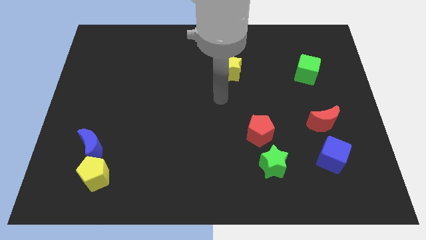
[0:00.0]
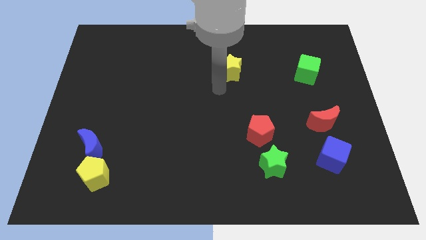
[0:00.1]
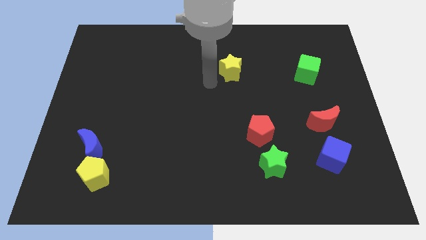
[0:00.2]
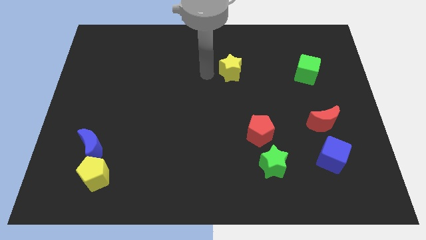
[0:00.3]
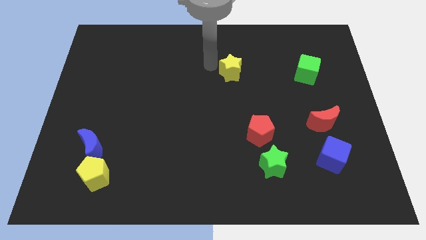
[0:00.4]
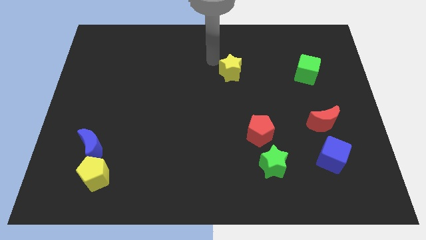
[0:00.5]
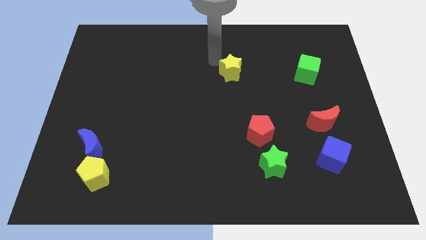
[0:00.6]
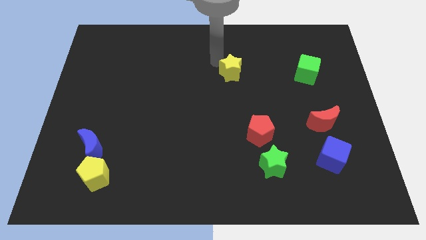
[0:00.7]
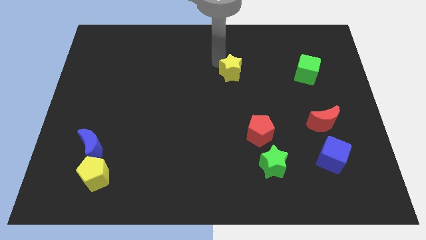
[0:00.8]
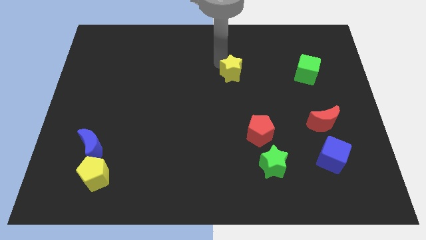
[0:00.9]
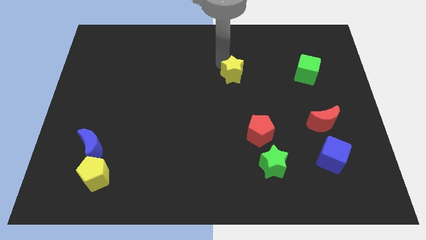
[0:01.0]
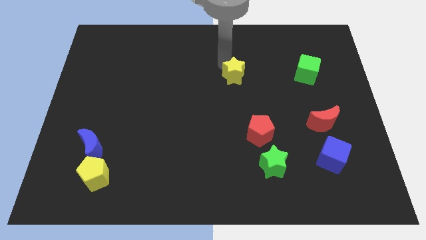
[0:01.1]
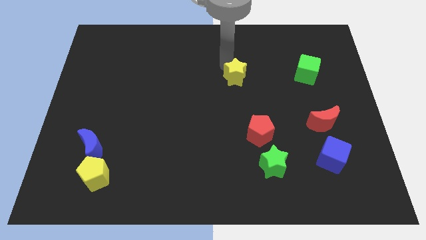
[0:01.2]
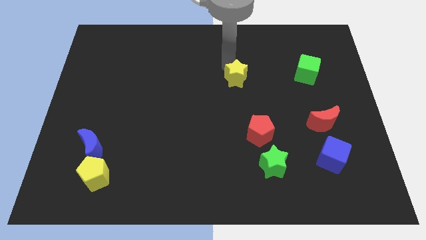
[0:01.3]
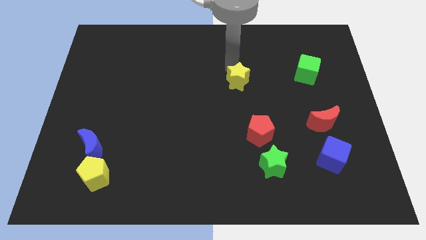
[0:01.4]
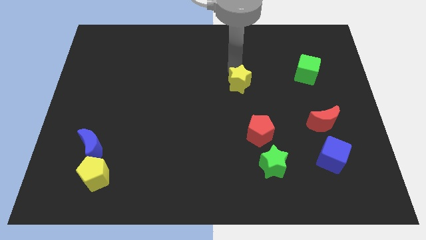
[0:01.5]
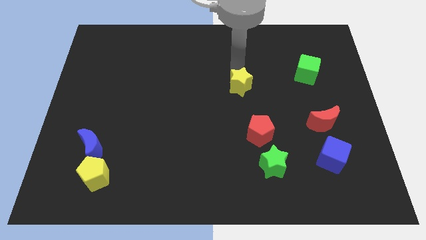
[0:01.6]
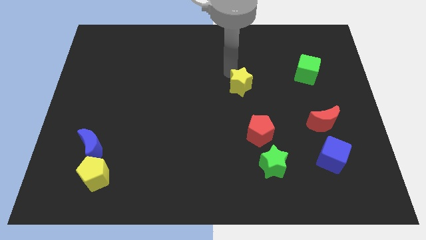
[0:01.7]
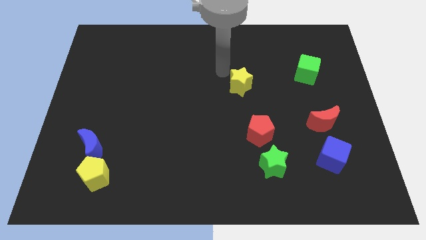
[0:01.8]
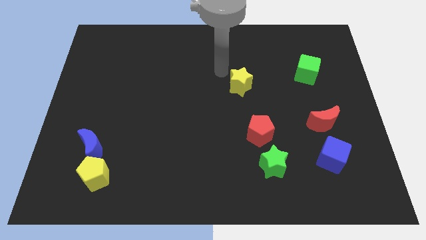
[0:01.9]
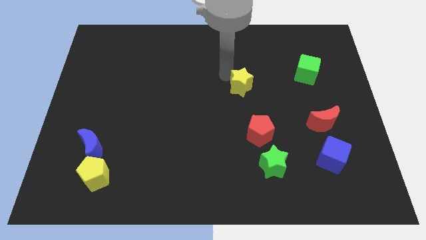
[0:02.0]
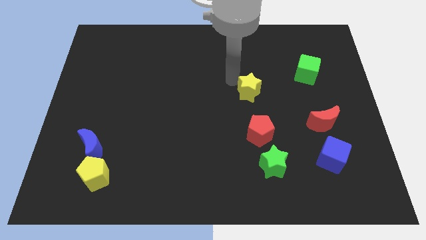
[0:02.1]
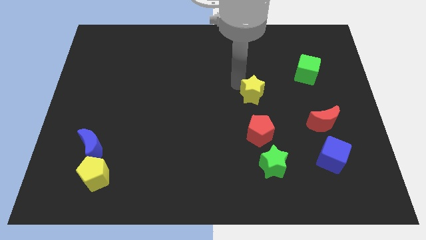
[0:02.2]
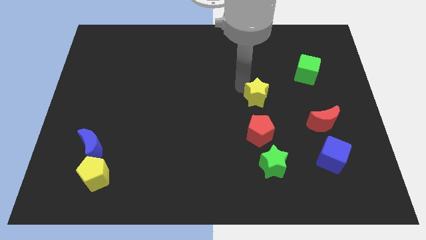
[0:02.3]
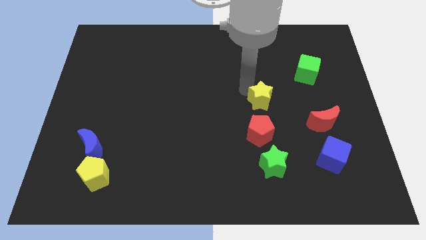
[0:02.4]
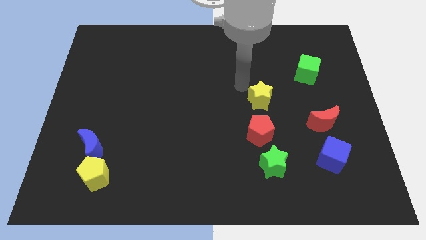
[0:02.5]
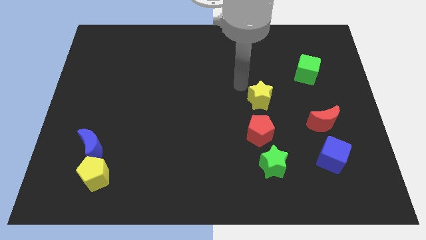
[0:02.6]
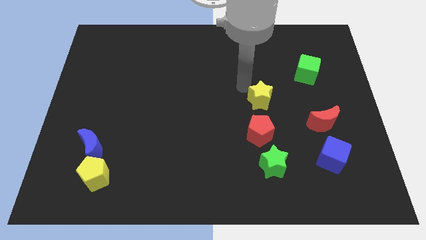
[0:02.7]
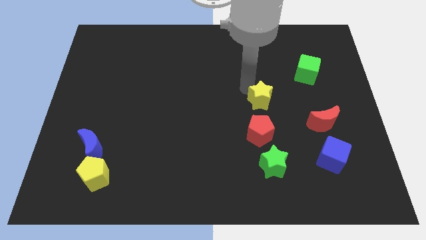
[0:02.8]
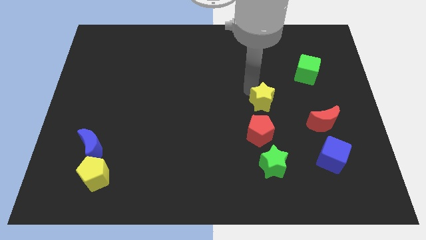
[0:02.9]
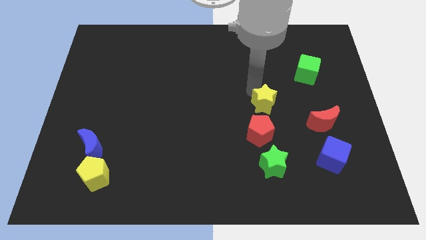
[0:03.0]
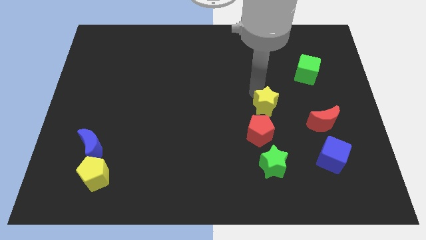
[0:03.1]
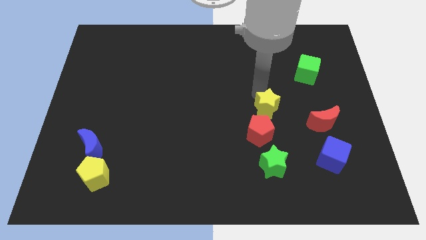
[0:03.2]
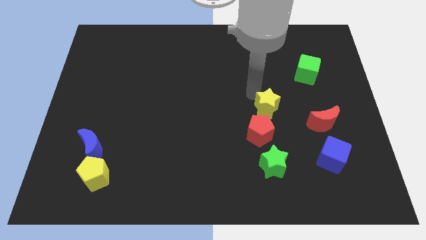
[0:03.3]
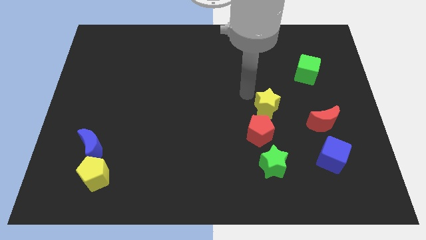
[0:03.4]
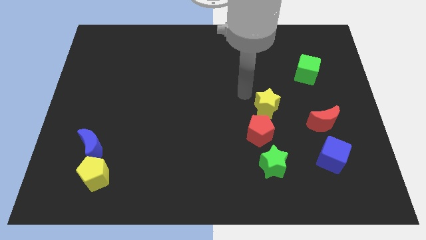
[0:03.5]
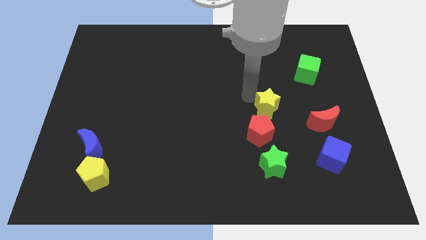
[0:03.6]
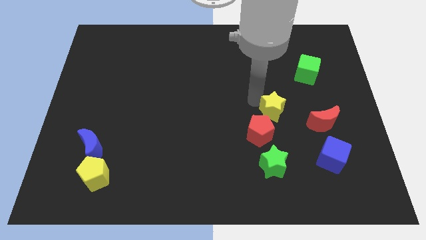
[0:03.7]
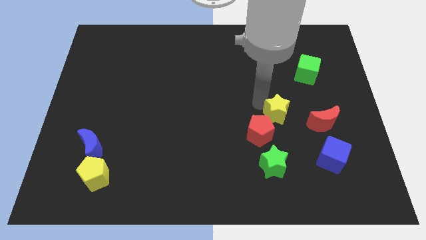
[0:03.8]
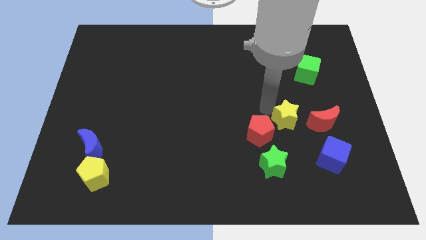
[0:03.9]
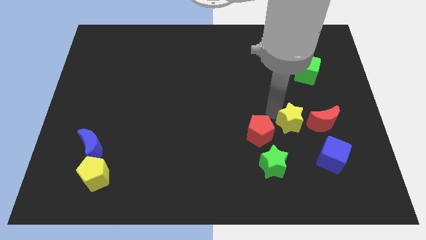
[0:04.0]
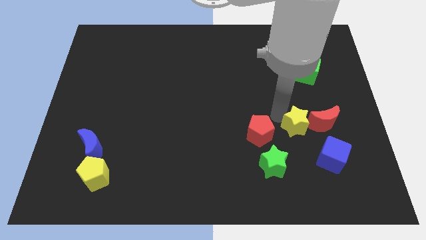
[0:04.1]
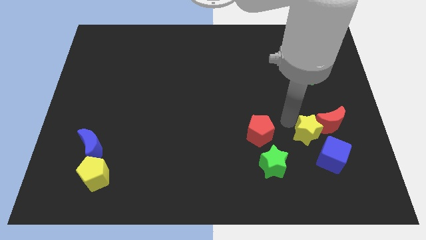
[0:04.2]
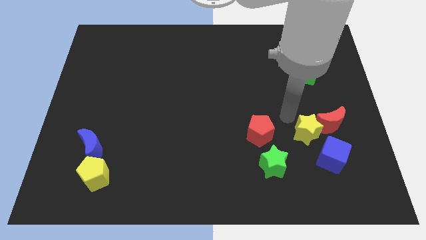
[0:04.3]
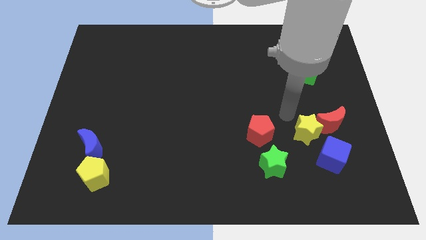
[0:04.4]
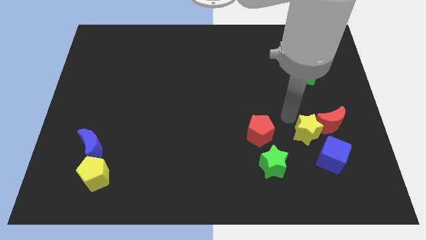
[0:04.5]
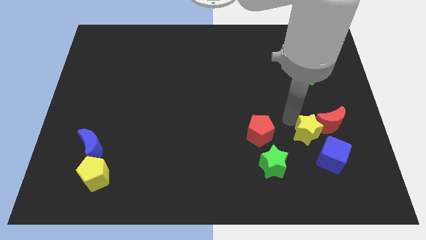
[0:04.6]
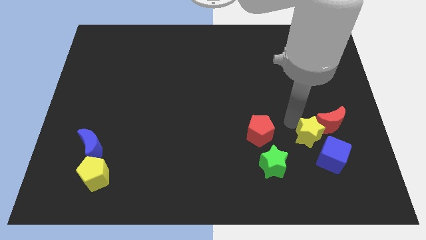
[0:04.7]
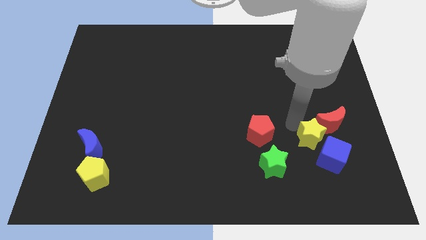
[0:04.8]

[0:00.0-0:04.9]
push the yellow star to the blue cube

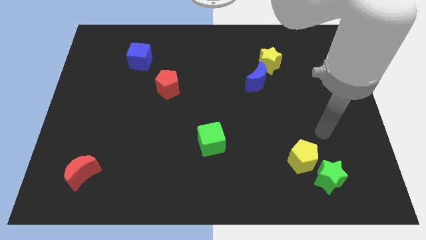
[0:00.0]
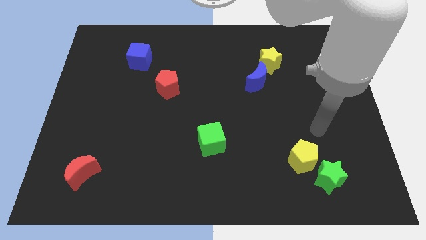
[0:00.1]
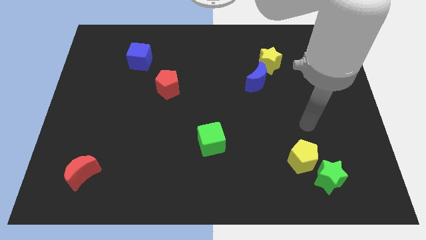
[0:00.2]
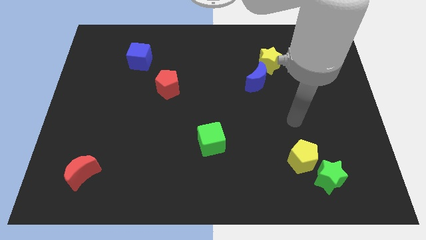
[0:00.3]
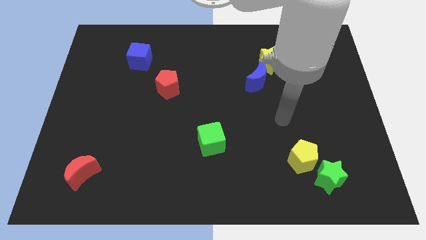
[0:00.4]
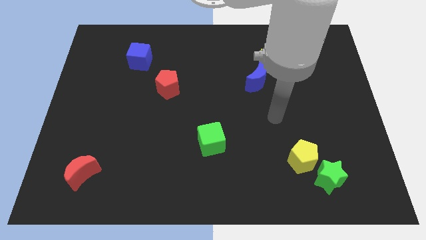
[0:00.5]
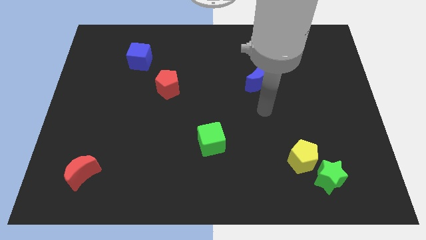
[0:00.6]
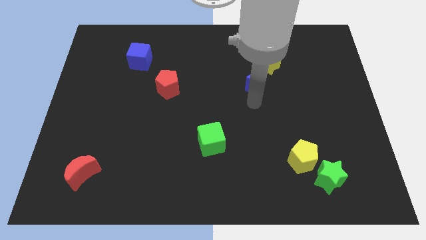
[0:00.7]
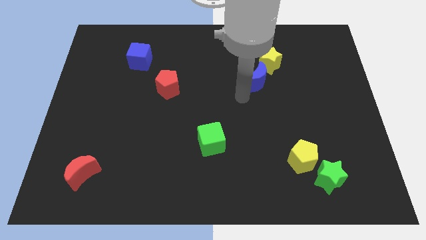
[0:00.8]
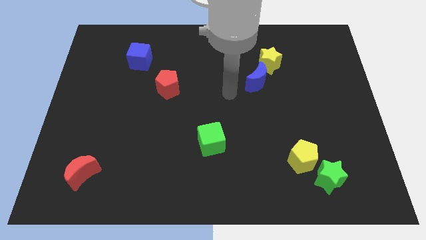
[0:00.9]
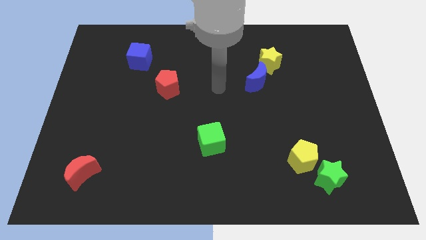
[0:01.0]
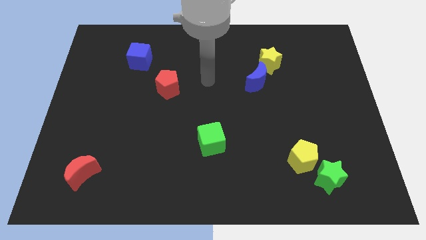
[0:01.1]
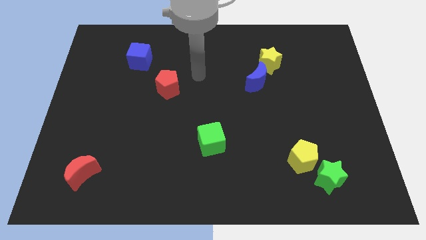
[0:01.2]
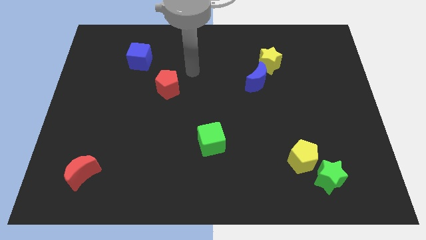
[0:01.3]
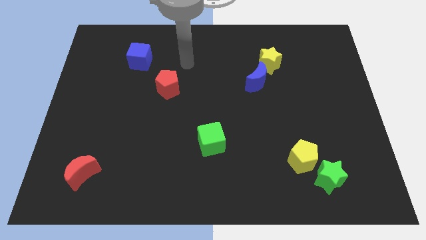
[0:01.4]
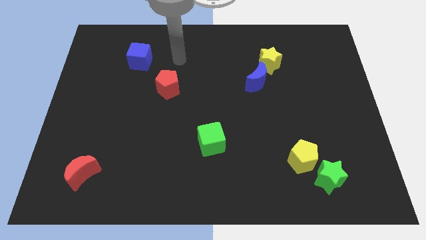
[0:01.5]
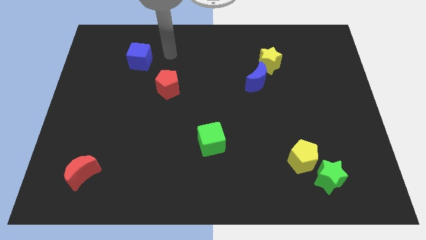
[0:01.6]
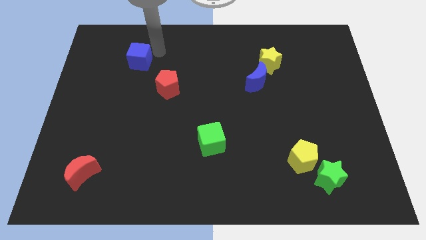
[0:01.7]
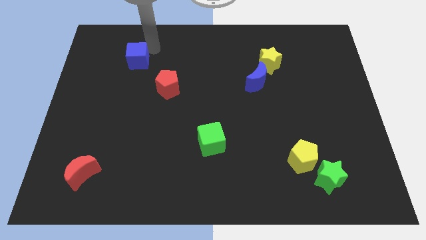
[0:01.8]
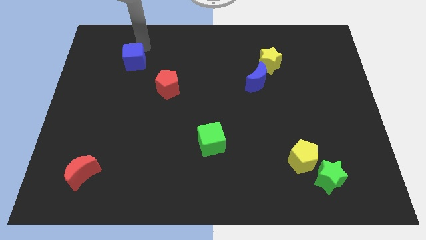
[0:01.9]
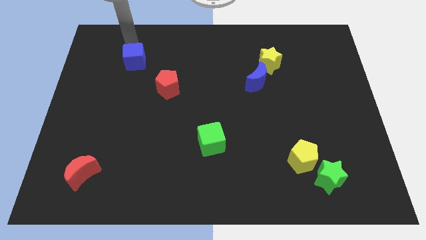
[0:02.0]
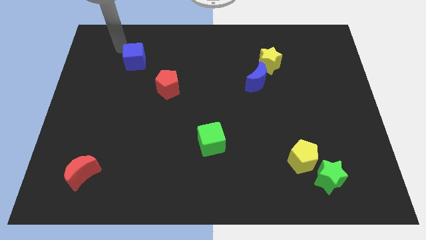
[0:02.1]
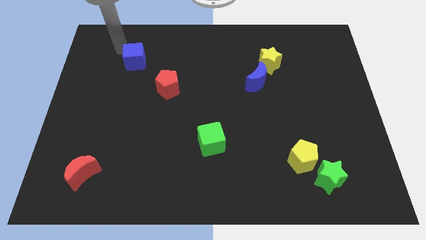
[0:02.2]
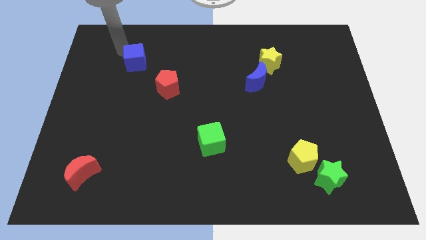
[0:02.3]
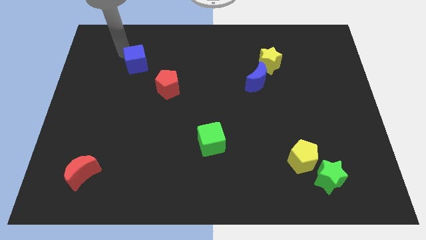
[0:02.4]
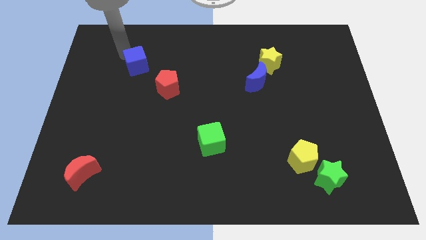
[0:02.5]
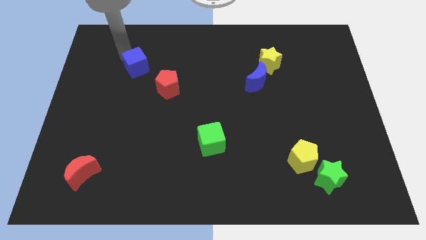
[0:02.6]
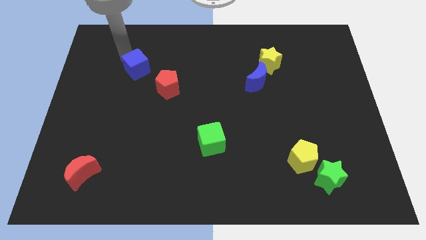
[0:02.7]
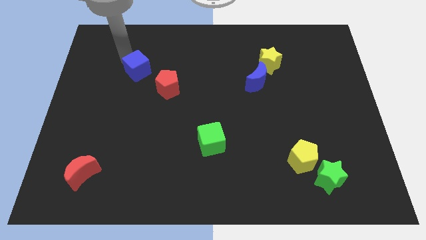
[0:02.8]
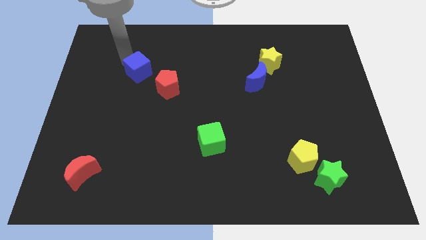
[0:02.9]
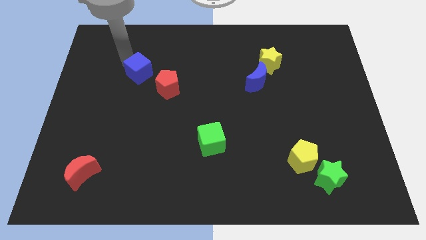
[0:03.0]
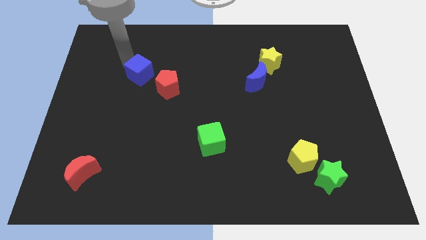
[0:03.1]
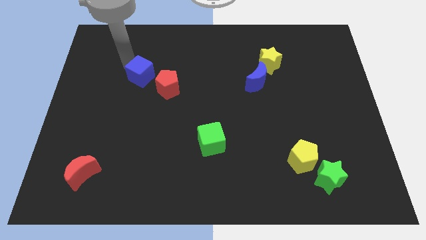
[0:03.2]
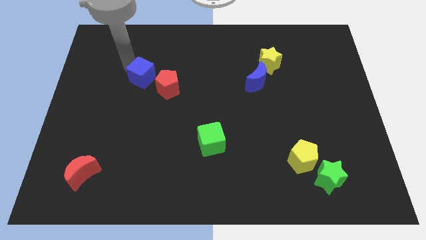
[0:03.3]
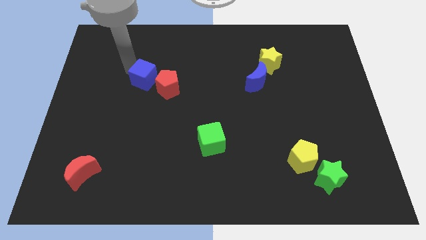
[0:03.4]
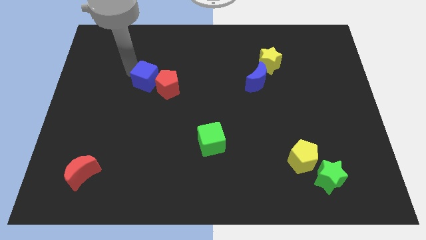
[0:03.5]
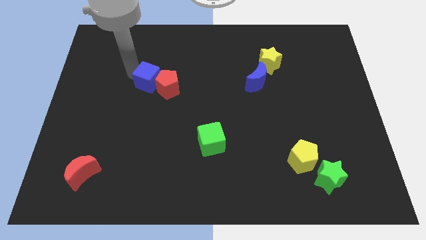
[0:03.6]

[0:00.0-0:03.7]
put the blue cube towards the red pentagon
